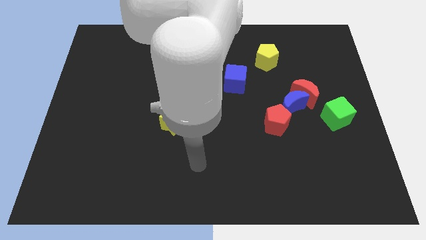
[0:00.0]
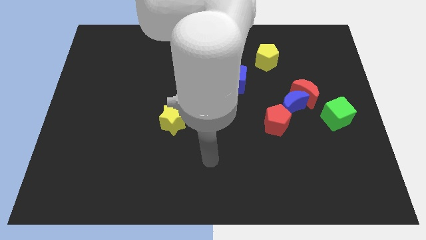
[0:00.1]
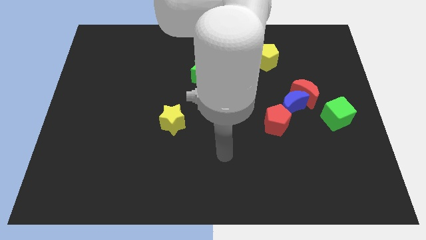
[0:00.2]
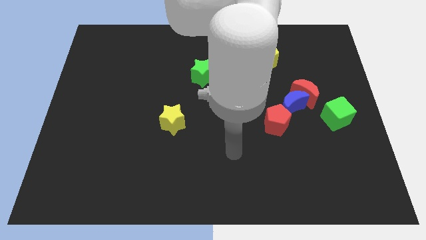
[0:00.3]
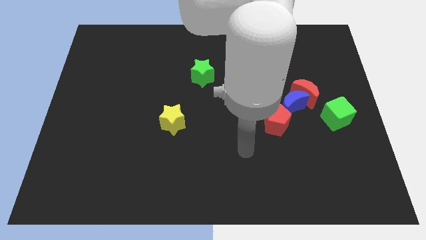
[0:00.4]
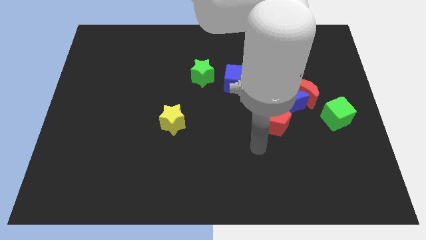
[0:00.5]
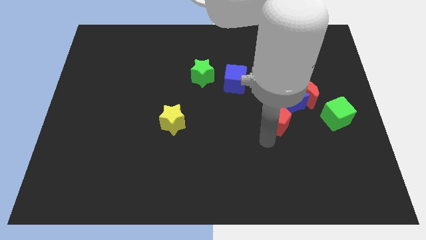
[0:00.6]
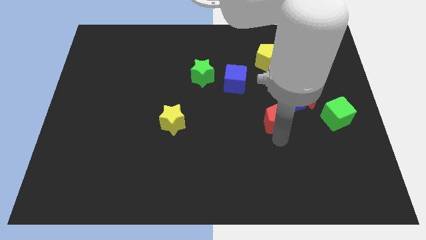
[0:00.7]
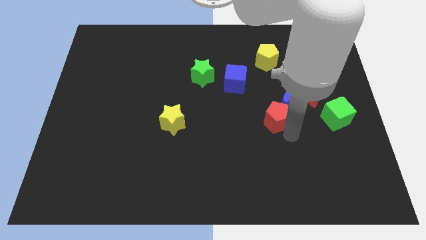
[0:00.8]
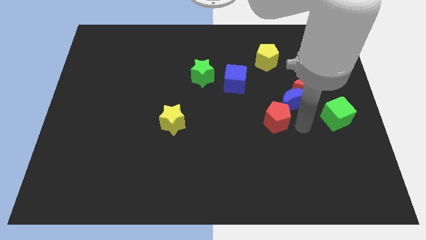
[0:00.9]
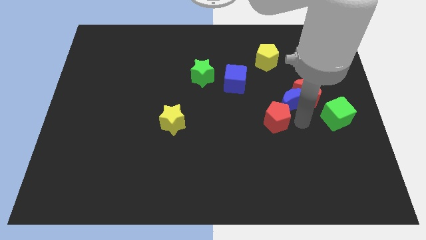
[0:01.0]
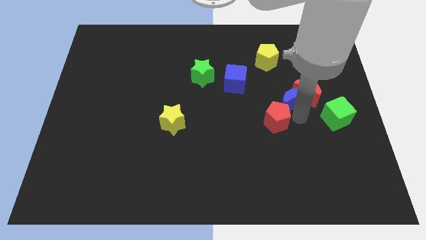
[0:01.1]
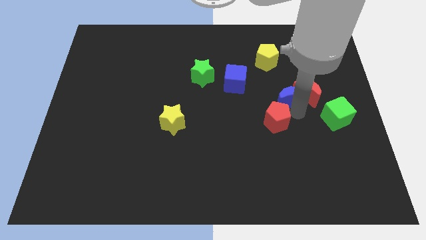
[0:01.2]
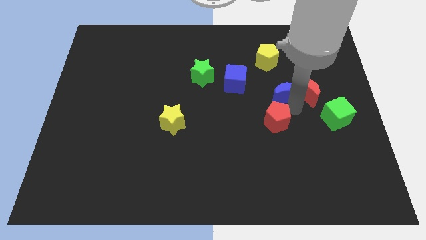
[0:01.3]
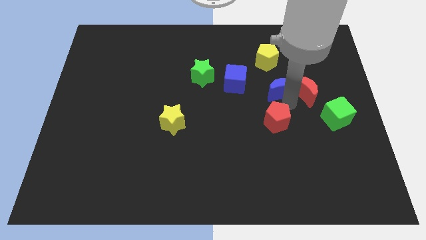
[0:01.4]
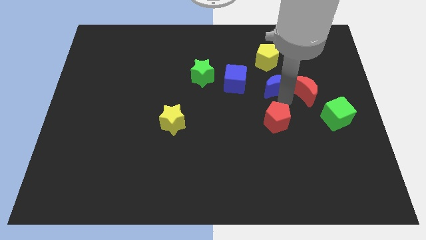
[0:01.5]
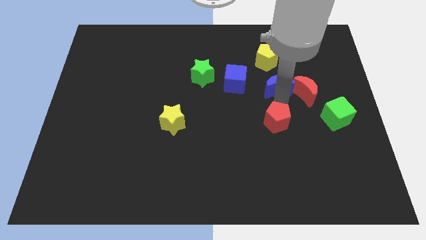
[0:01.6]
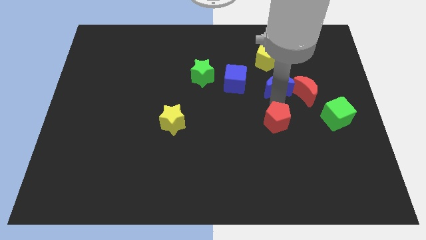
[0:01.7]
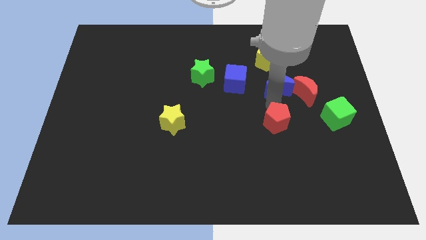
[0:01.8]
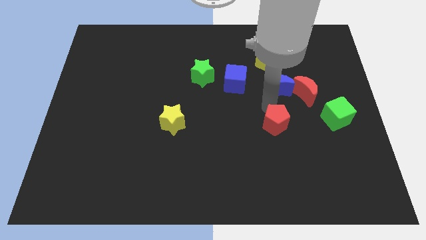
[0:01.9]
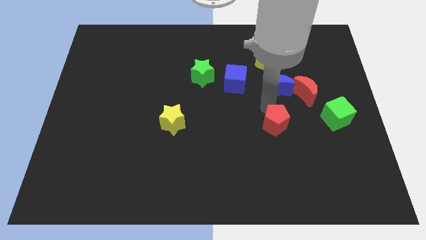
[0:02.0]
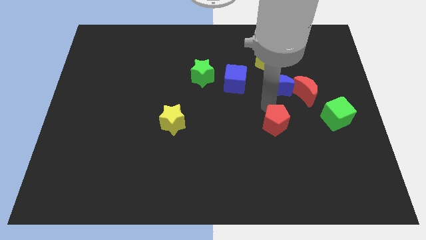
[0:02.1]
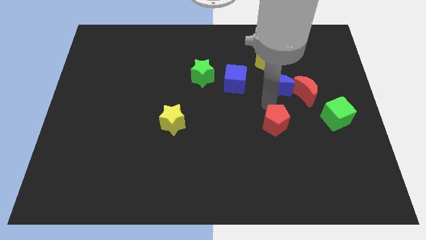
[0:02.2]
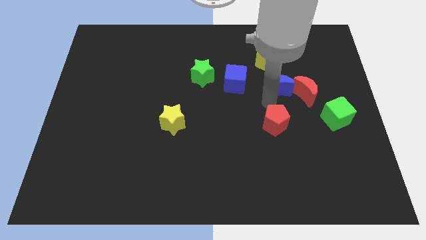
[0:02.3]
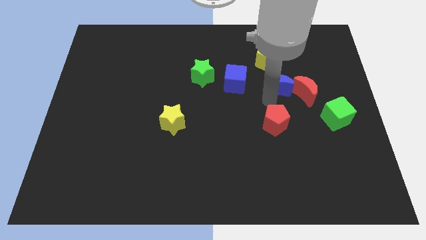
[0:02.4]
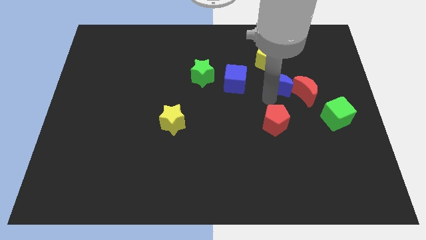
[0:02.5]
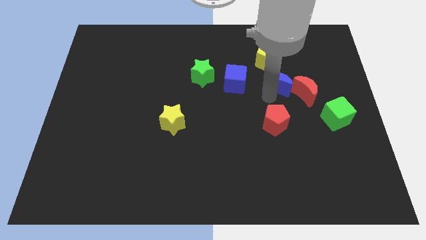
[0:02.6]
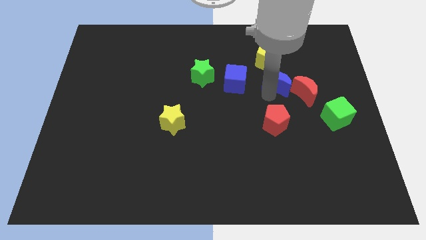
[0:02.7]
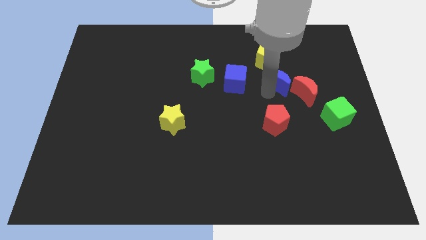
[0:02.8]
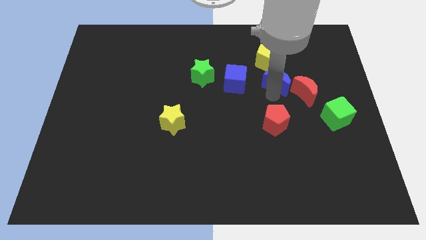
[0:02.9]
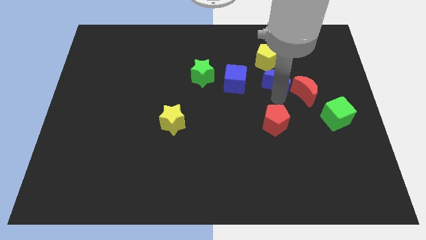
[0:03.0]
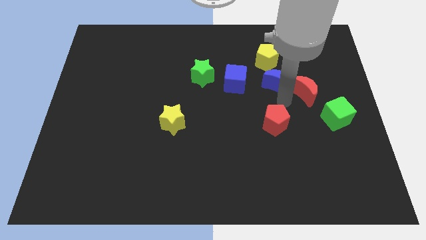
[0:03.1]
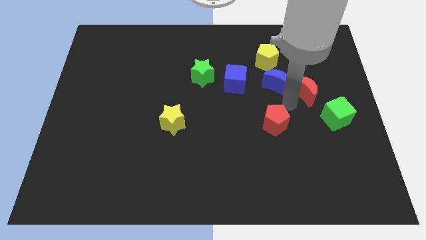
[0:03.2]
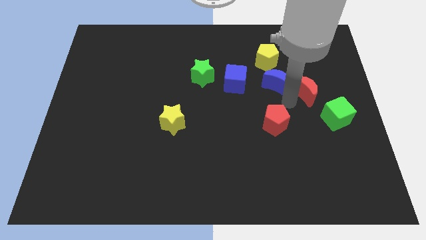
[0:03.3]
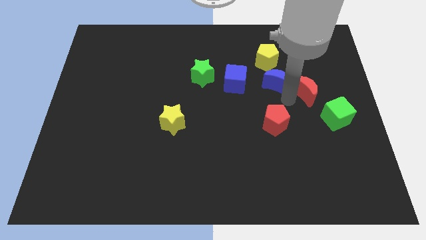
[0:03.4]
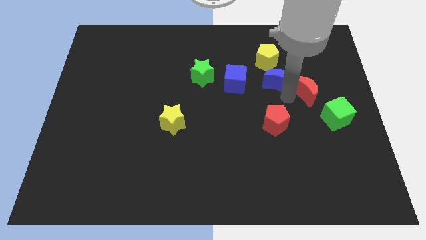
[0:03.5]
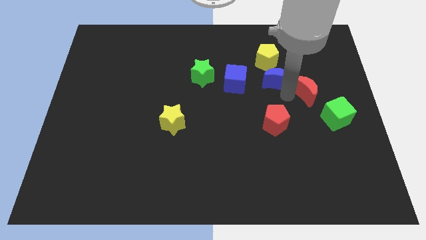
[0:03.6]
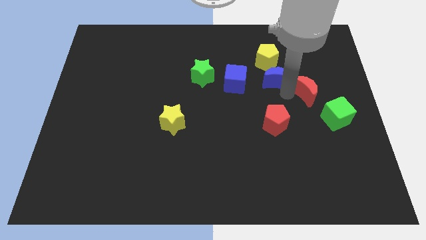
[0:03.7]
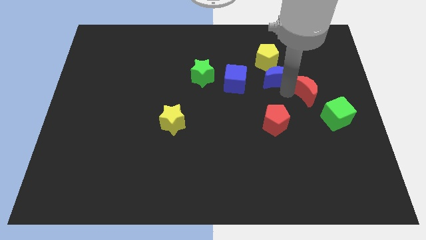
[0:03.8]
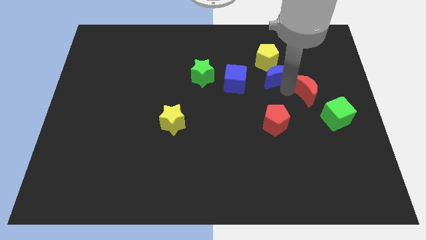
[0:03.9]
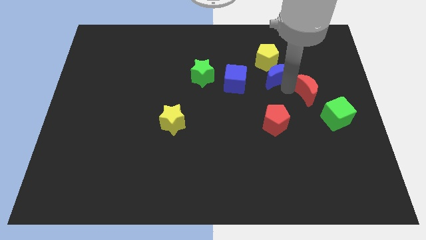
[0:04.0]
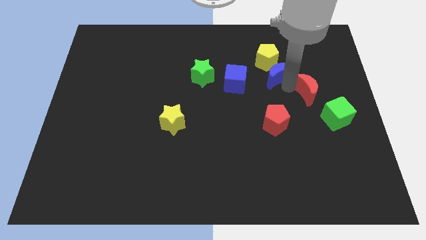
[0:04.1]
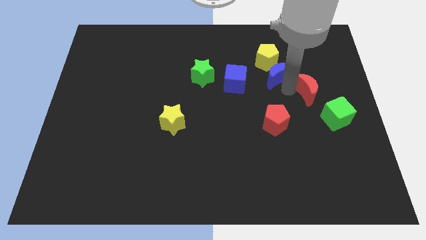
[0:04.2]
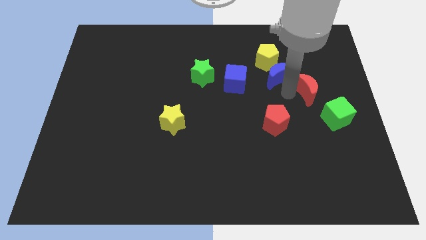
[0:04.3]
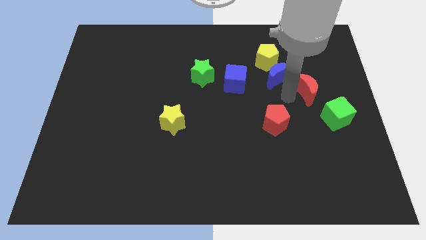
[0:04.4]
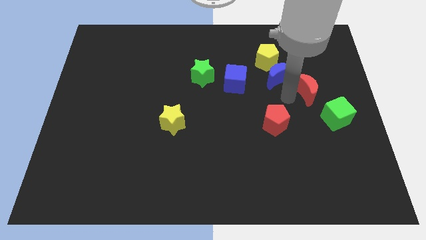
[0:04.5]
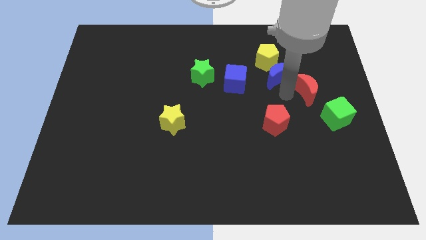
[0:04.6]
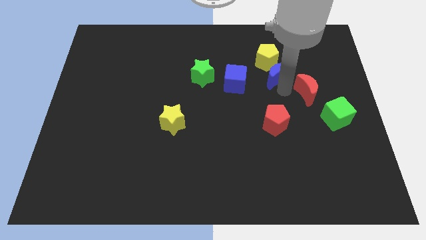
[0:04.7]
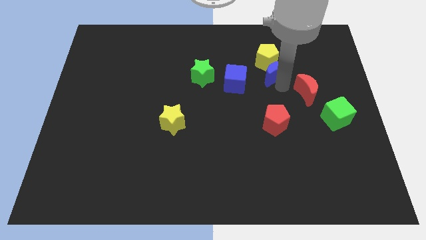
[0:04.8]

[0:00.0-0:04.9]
pull the blue moon apart from the red moon and red pentagon

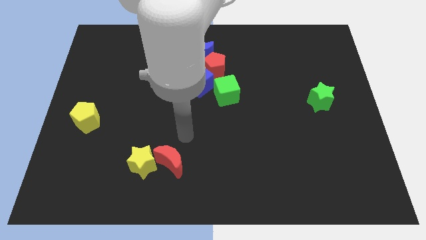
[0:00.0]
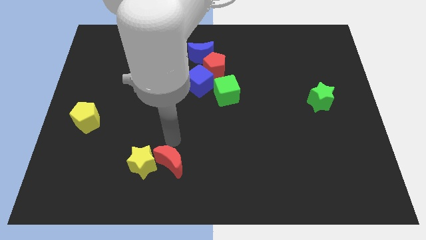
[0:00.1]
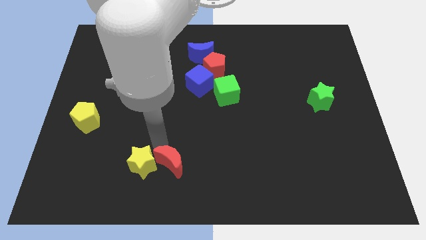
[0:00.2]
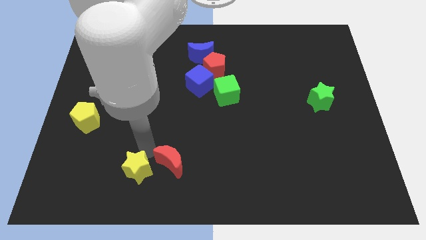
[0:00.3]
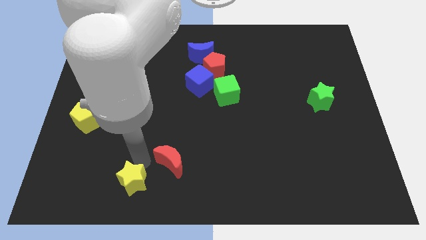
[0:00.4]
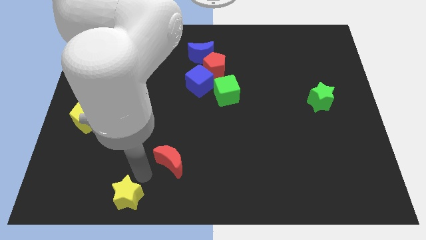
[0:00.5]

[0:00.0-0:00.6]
move the red moon away from the yellow star

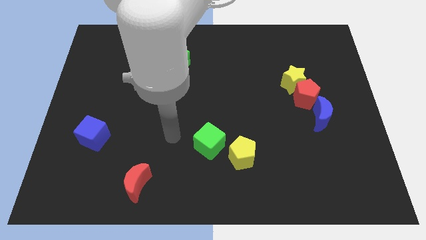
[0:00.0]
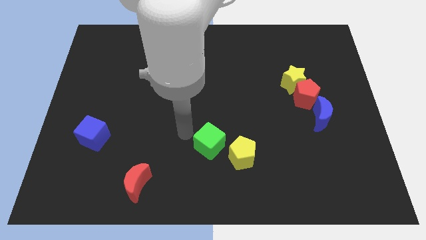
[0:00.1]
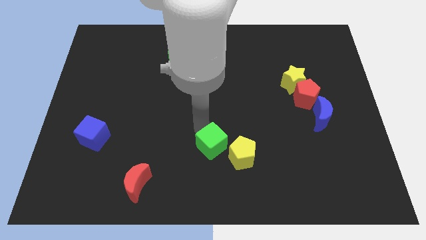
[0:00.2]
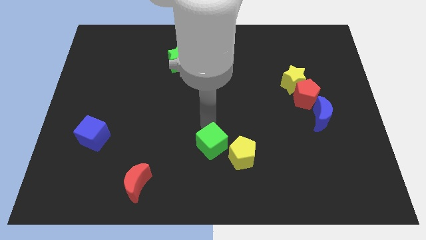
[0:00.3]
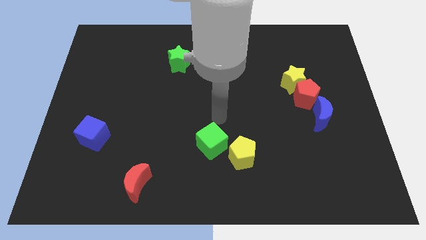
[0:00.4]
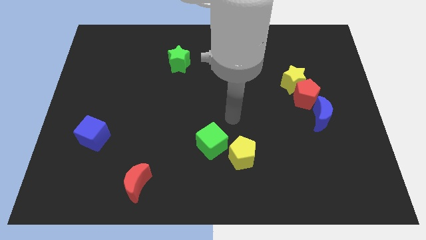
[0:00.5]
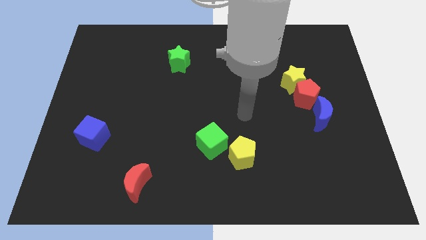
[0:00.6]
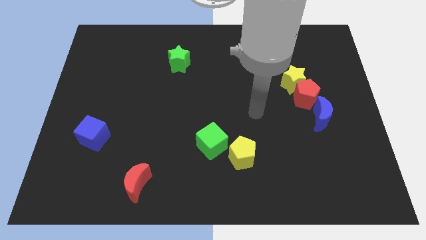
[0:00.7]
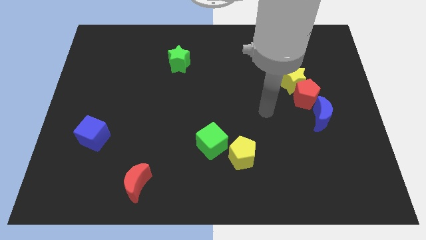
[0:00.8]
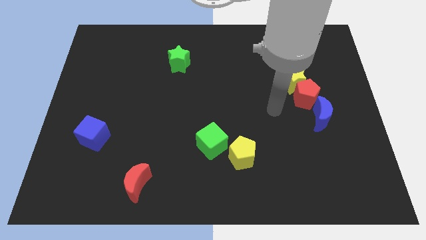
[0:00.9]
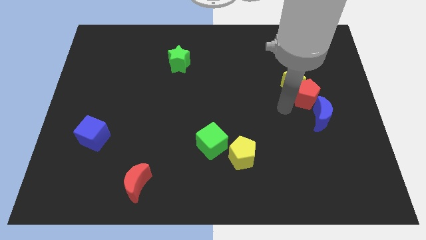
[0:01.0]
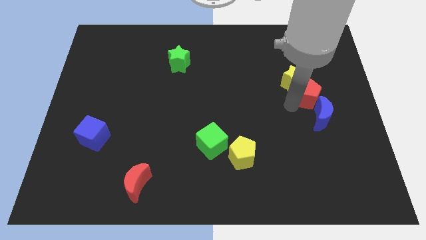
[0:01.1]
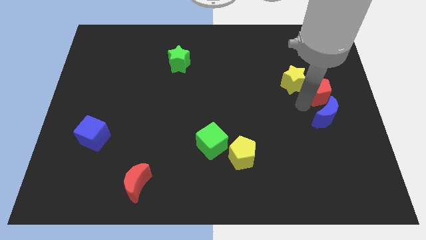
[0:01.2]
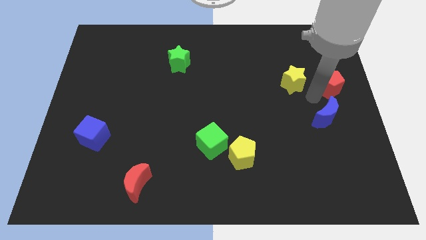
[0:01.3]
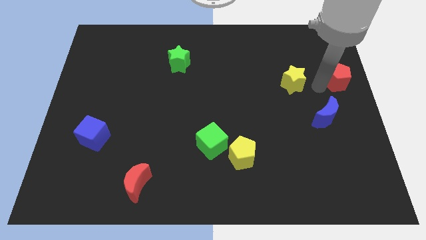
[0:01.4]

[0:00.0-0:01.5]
pull the yellow star apart from the red pentagon

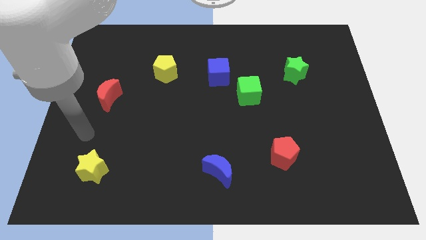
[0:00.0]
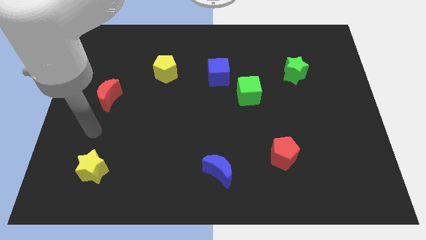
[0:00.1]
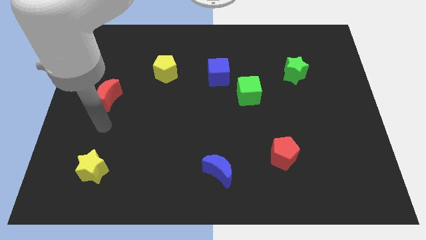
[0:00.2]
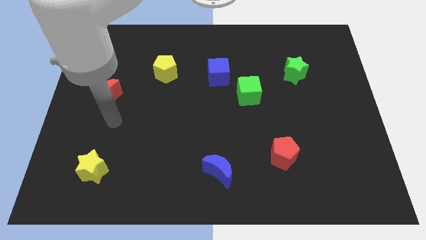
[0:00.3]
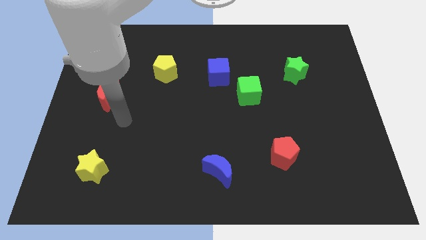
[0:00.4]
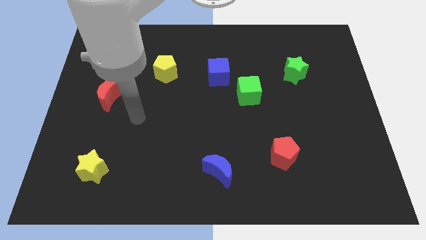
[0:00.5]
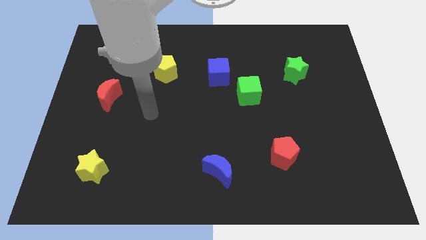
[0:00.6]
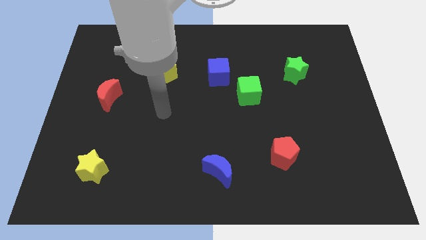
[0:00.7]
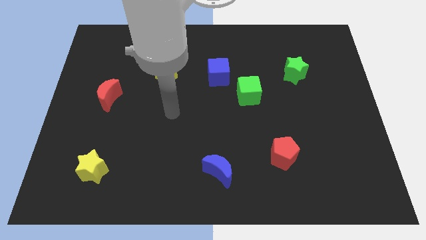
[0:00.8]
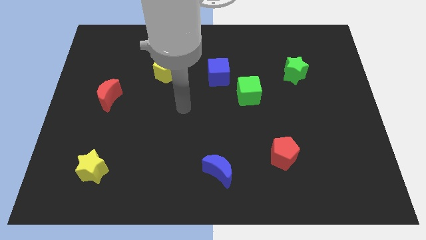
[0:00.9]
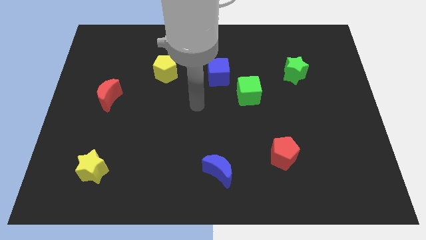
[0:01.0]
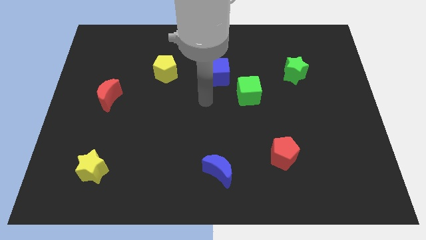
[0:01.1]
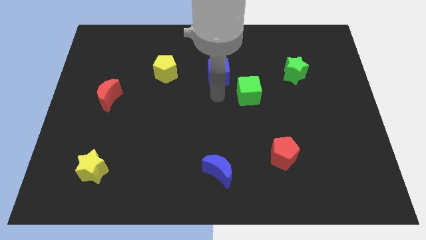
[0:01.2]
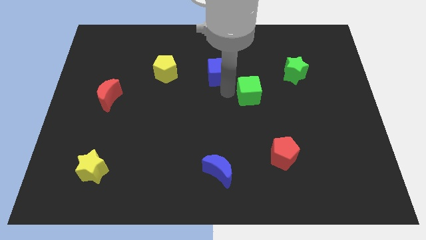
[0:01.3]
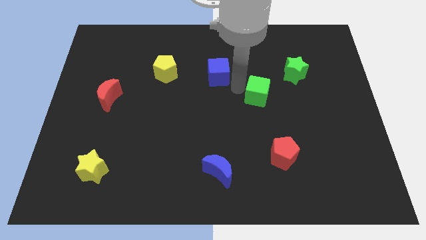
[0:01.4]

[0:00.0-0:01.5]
pull the blue cube apart from the green cube

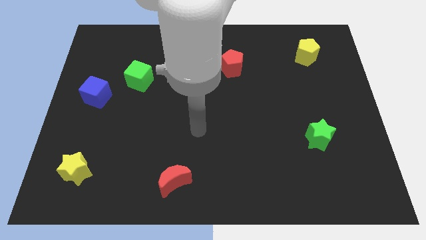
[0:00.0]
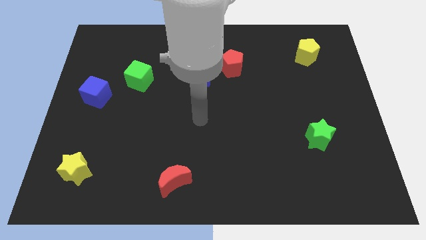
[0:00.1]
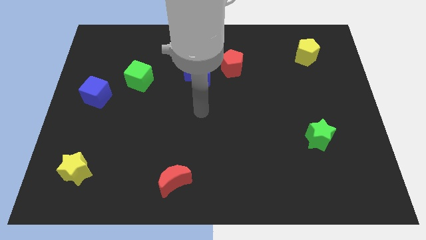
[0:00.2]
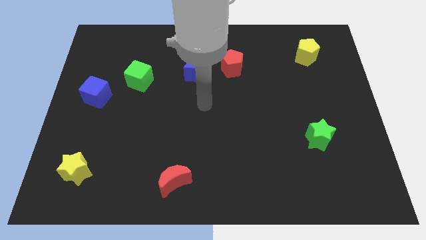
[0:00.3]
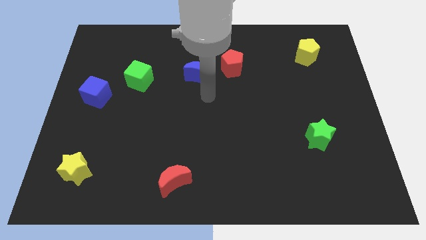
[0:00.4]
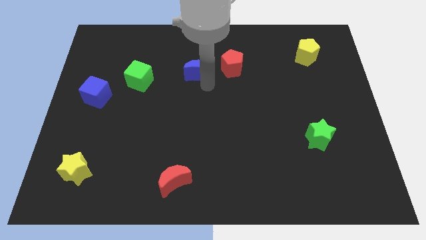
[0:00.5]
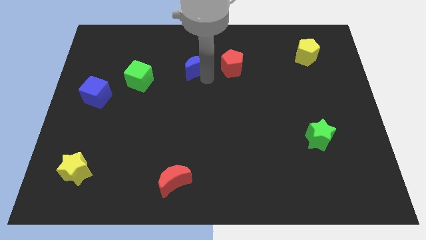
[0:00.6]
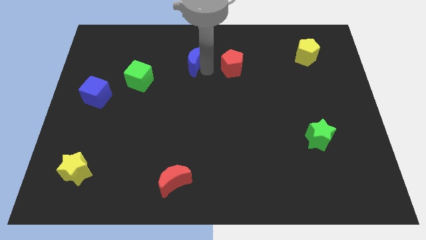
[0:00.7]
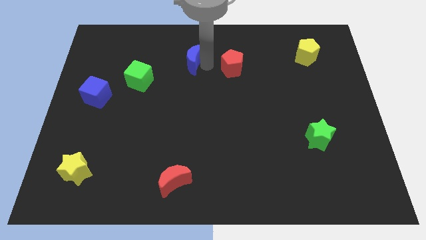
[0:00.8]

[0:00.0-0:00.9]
move the red pentagon away from the blue moon

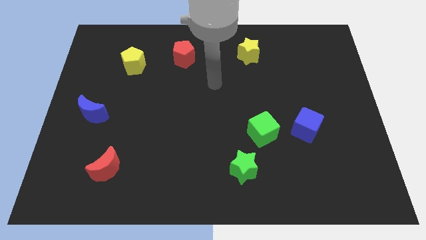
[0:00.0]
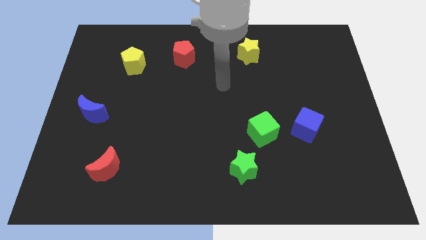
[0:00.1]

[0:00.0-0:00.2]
separate the blue cube from the green cube
